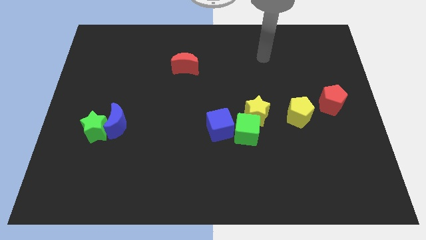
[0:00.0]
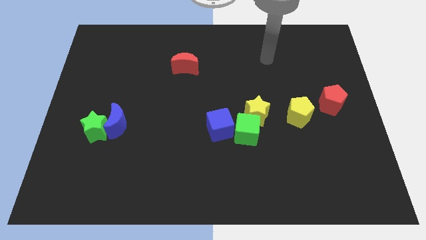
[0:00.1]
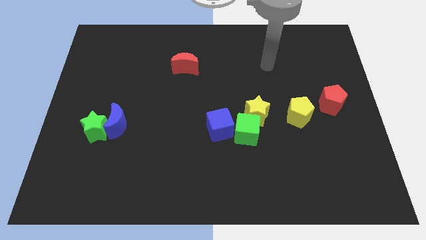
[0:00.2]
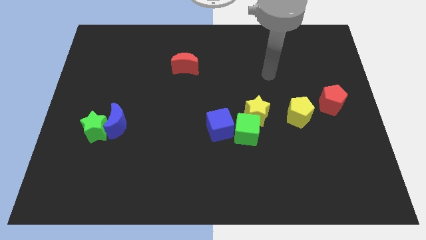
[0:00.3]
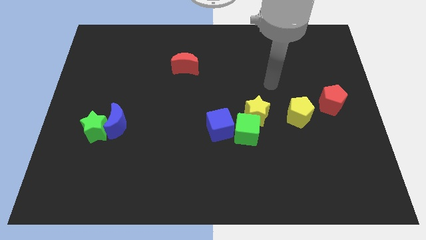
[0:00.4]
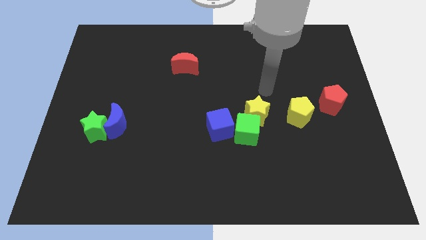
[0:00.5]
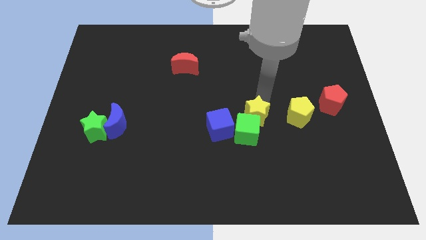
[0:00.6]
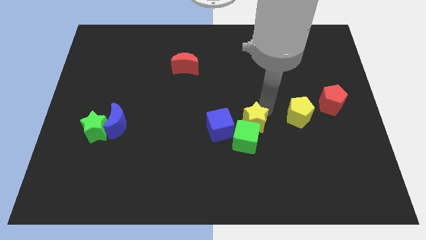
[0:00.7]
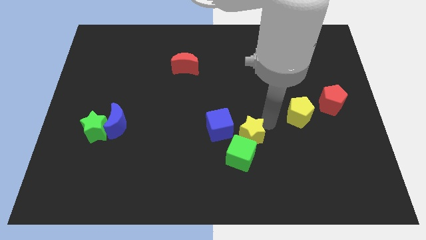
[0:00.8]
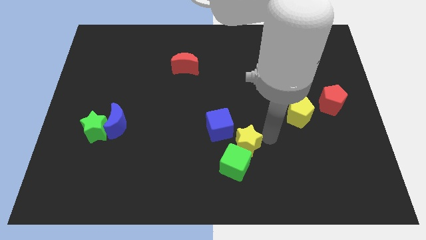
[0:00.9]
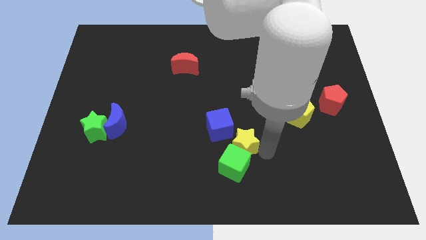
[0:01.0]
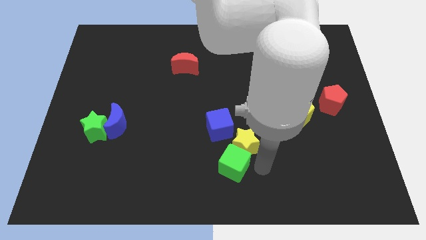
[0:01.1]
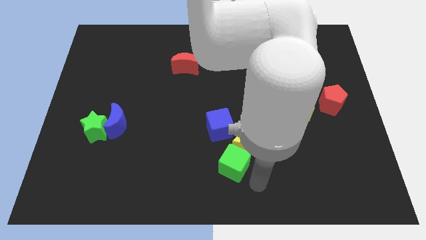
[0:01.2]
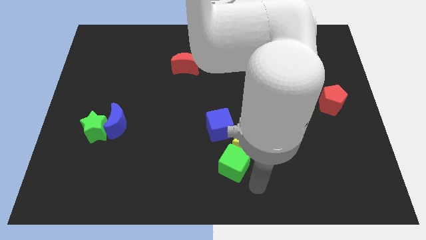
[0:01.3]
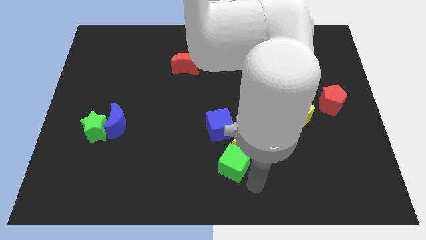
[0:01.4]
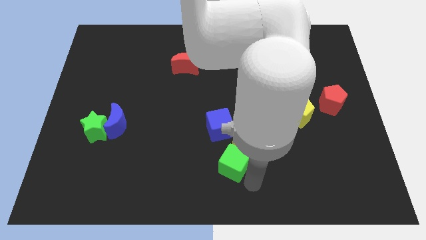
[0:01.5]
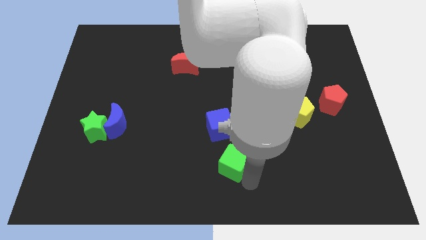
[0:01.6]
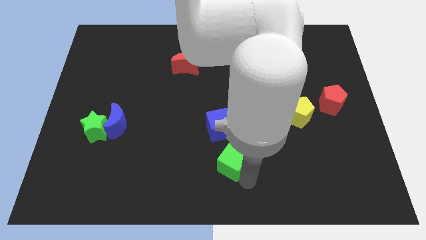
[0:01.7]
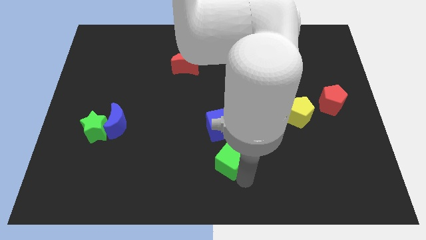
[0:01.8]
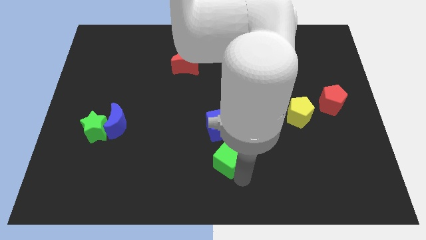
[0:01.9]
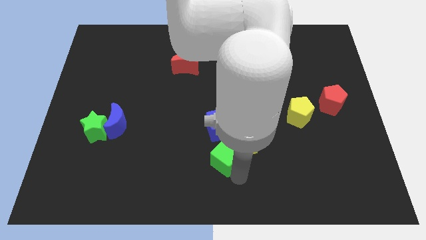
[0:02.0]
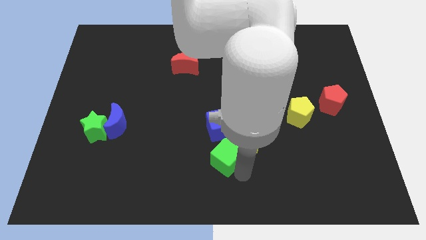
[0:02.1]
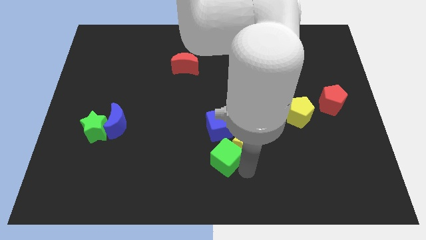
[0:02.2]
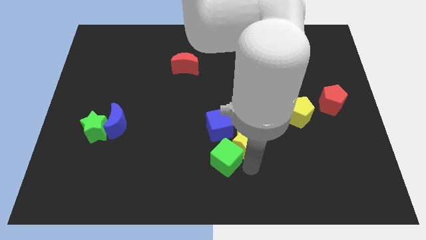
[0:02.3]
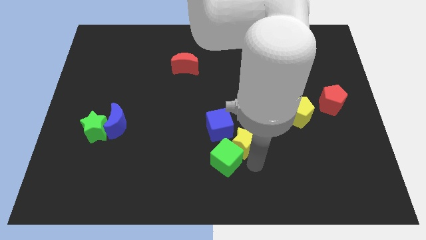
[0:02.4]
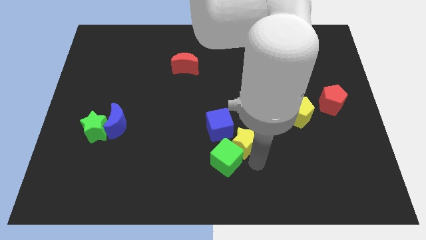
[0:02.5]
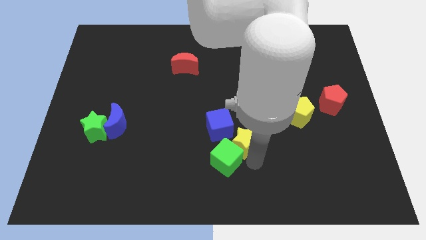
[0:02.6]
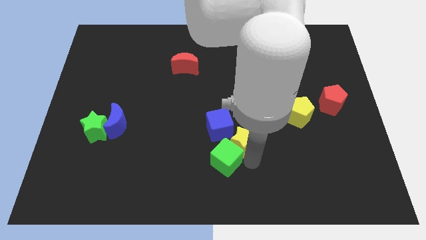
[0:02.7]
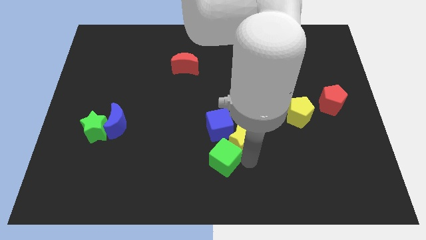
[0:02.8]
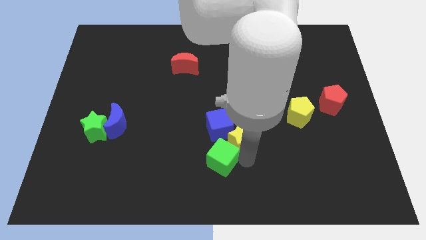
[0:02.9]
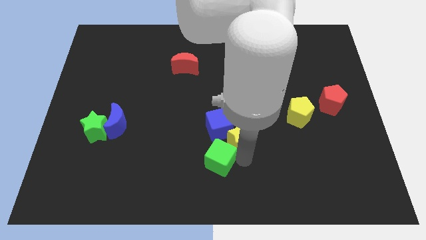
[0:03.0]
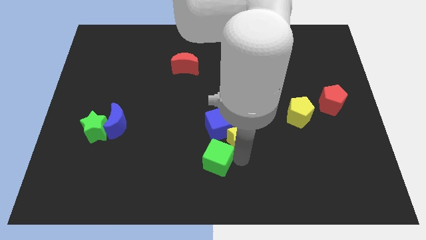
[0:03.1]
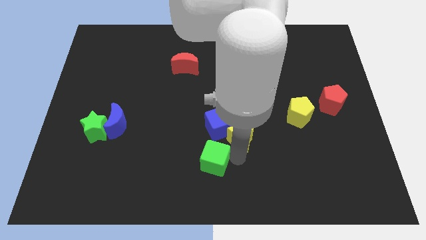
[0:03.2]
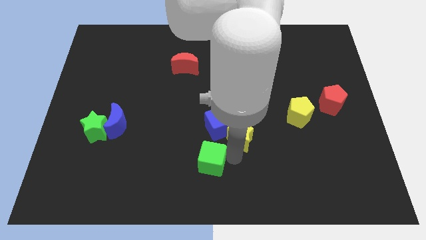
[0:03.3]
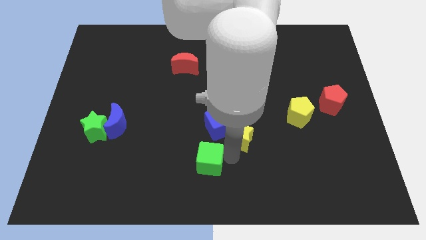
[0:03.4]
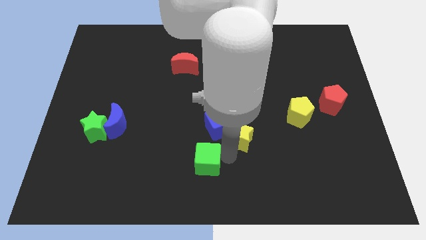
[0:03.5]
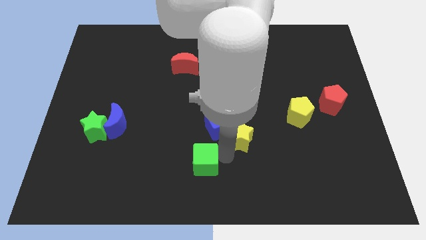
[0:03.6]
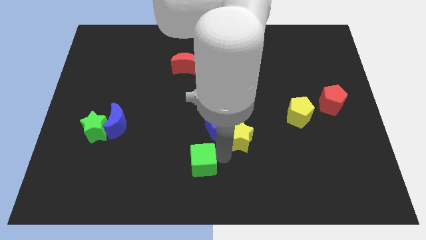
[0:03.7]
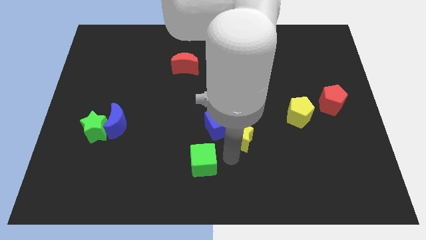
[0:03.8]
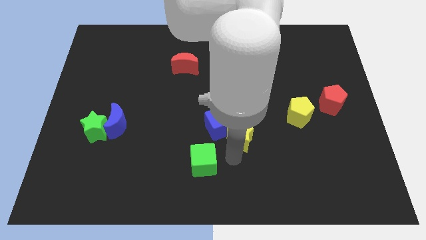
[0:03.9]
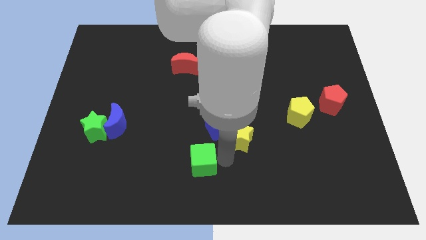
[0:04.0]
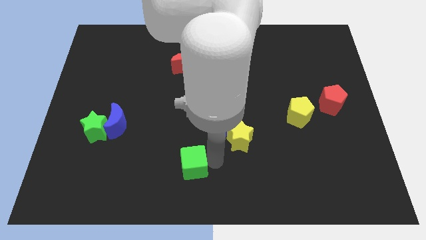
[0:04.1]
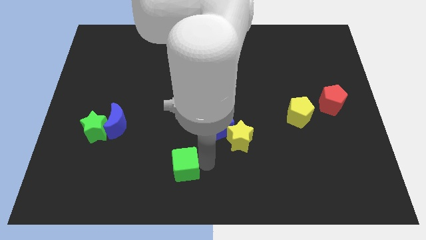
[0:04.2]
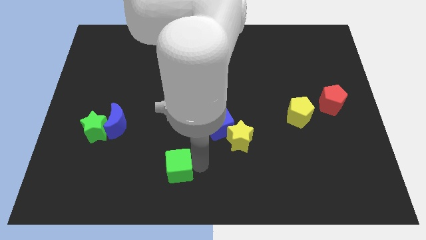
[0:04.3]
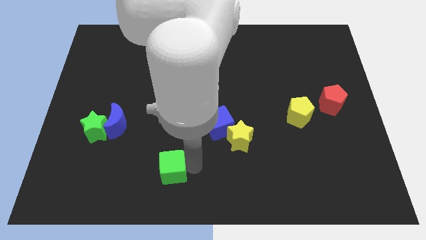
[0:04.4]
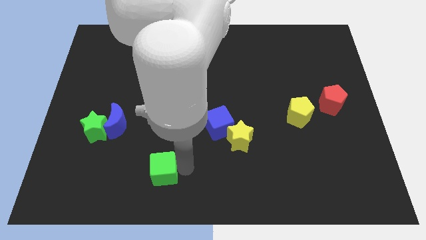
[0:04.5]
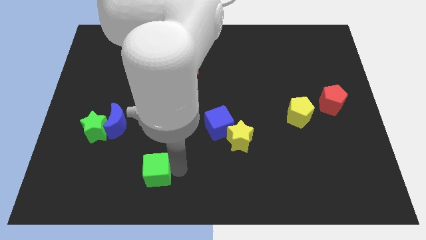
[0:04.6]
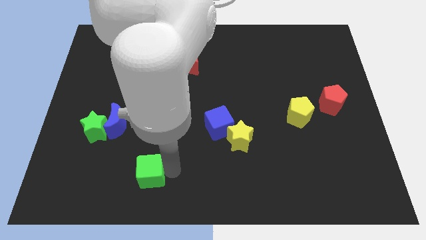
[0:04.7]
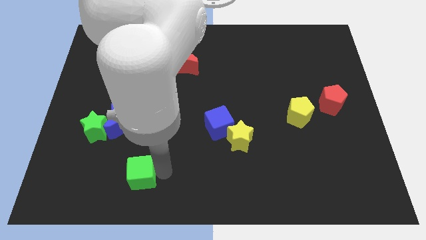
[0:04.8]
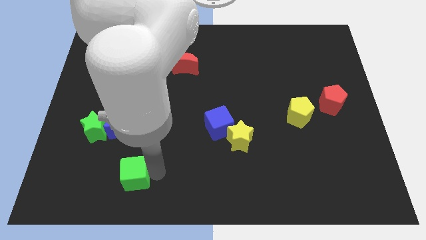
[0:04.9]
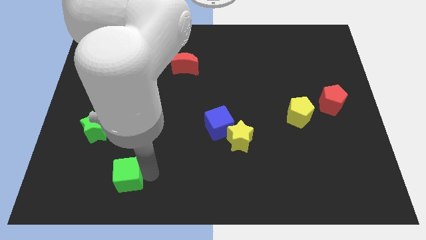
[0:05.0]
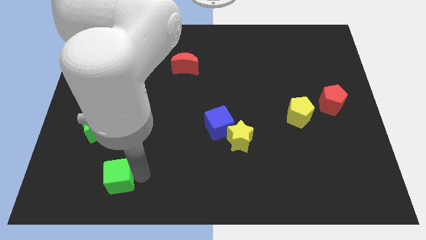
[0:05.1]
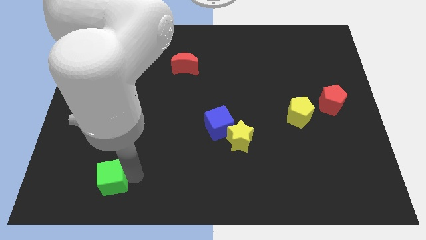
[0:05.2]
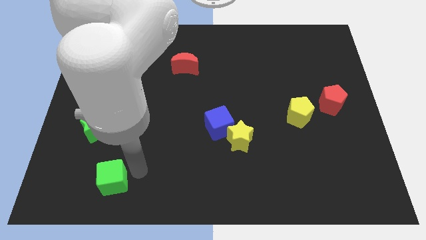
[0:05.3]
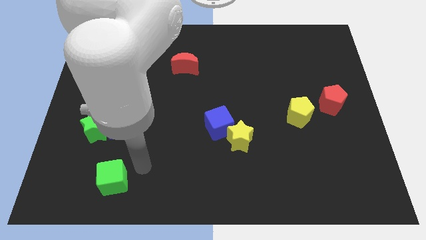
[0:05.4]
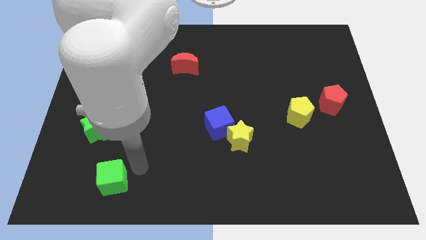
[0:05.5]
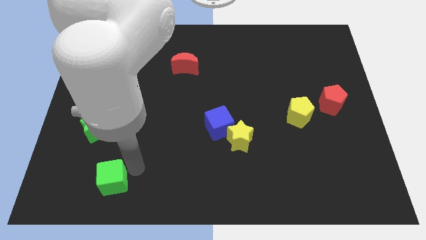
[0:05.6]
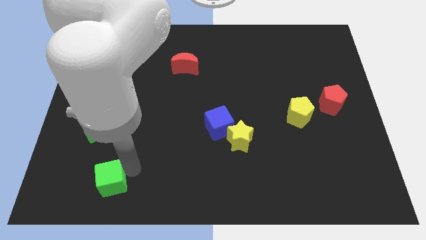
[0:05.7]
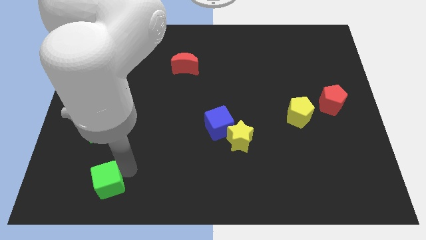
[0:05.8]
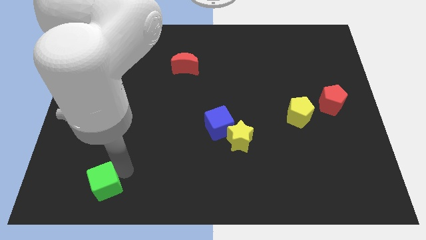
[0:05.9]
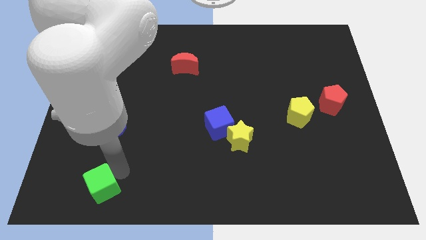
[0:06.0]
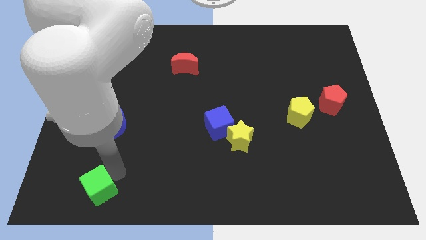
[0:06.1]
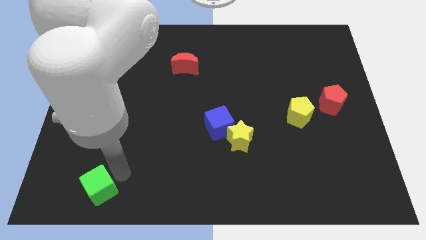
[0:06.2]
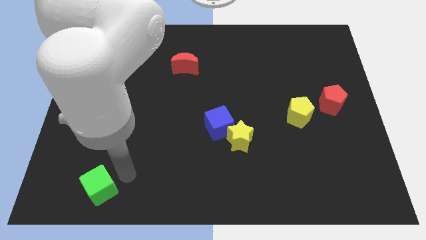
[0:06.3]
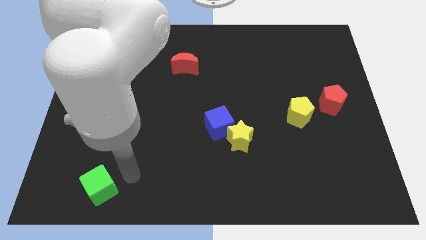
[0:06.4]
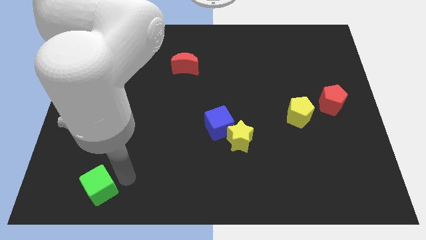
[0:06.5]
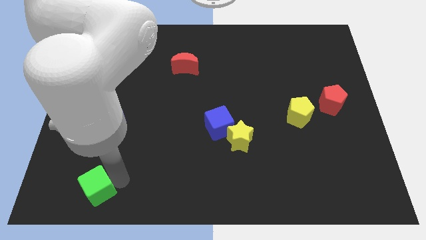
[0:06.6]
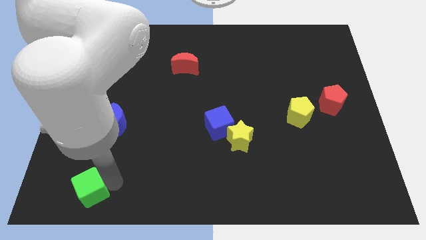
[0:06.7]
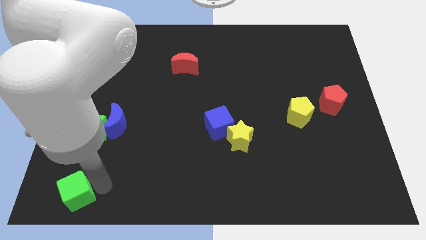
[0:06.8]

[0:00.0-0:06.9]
put the green cube to the bottom left corner
